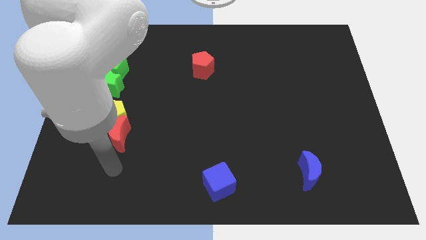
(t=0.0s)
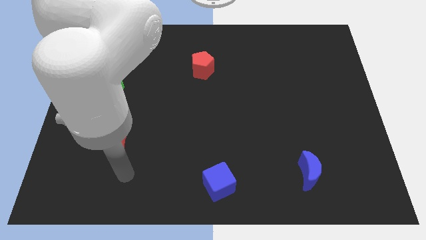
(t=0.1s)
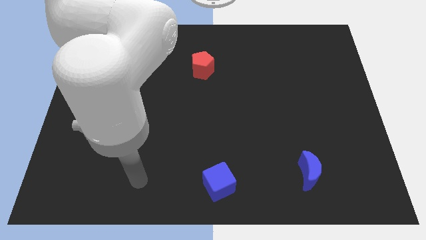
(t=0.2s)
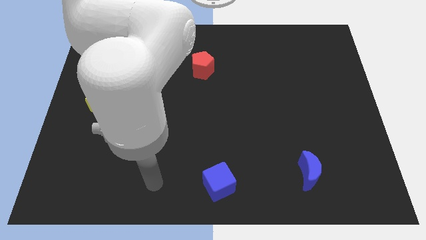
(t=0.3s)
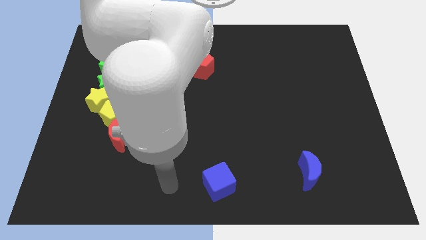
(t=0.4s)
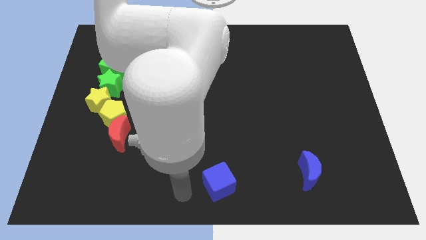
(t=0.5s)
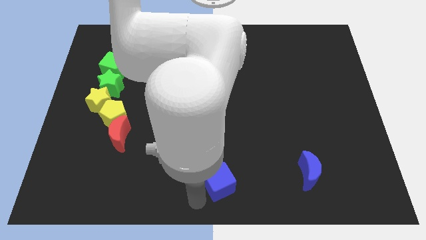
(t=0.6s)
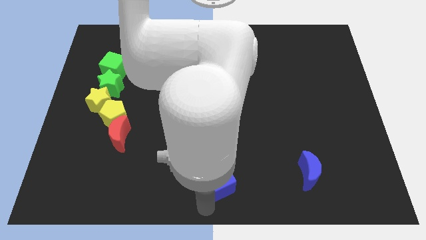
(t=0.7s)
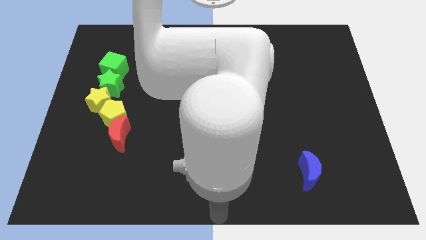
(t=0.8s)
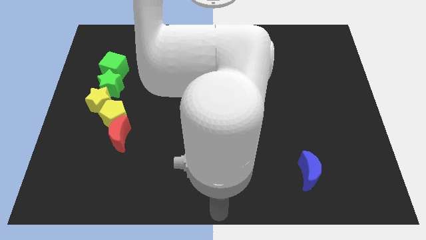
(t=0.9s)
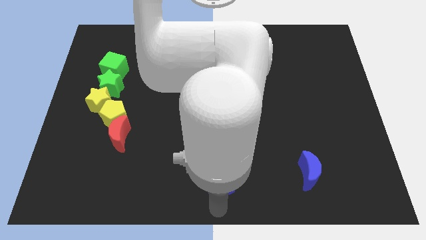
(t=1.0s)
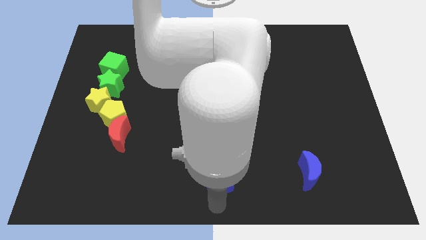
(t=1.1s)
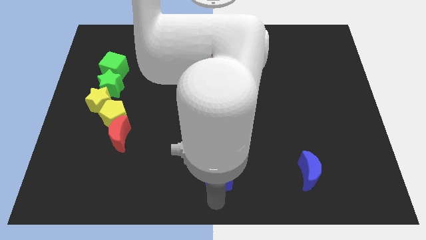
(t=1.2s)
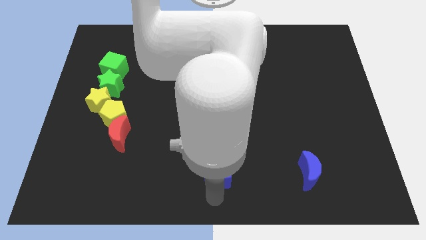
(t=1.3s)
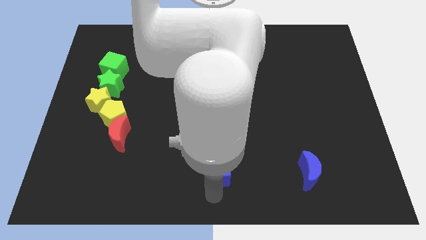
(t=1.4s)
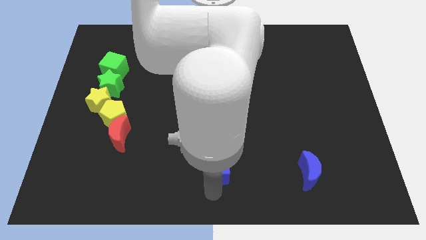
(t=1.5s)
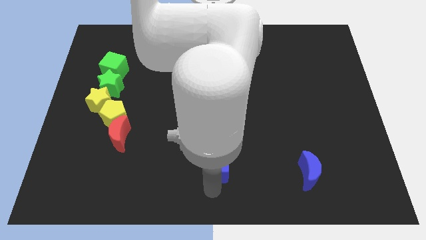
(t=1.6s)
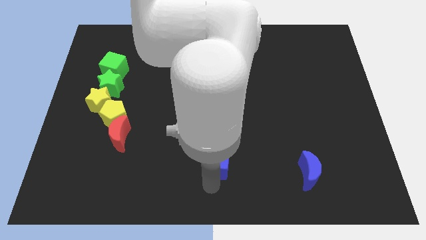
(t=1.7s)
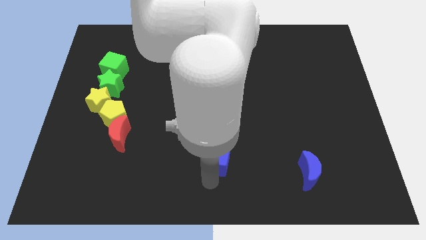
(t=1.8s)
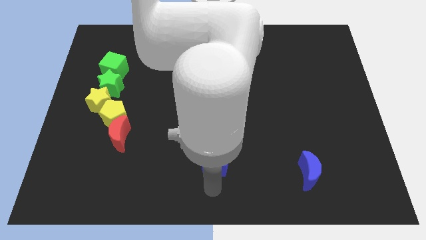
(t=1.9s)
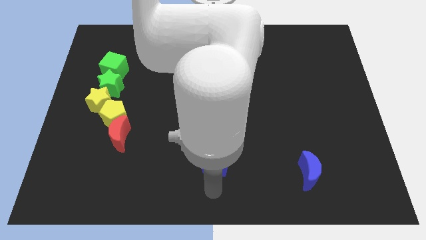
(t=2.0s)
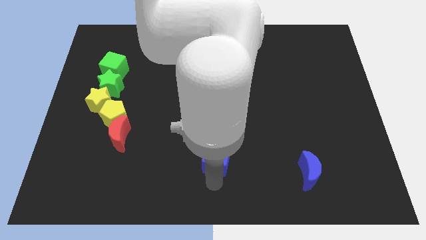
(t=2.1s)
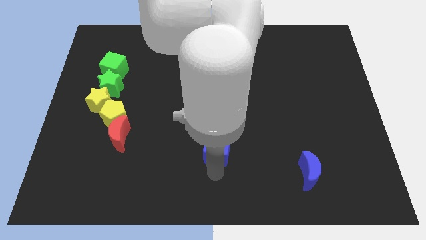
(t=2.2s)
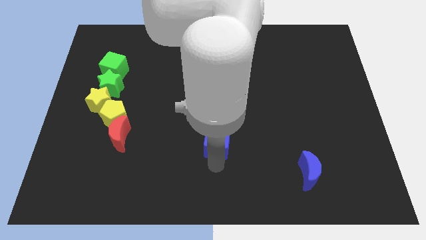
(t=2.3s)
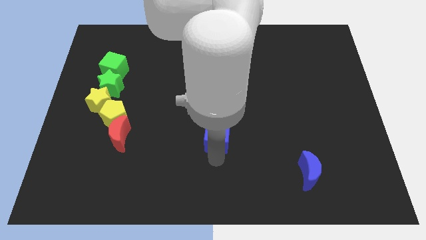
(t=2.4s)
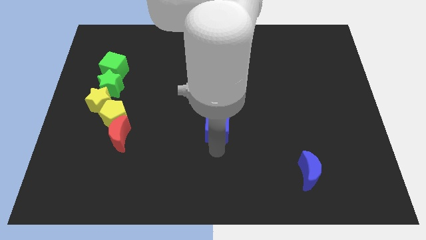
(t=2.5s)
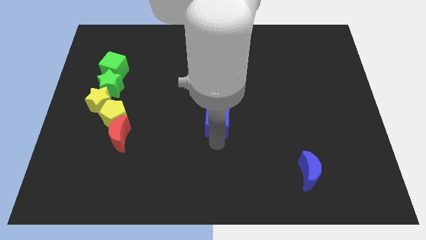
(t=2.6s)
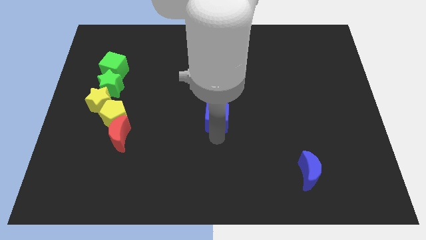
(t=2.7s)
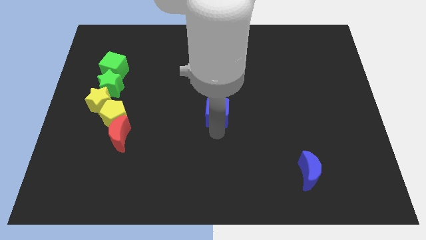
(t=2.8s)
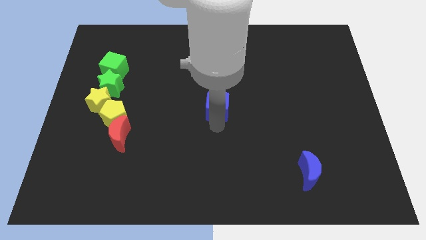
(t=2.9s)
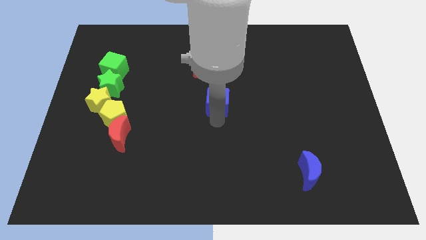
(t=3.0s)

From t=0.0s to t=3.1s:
slide the blue cube up

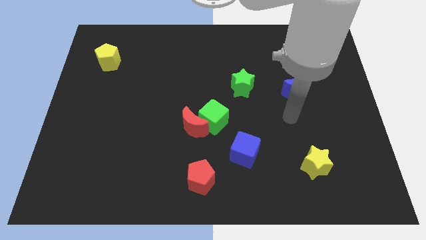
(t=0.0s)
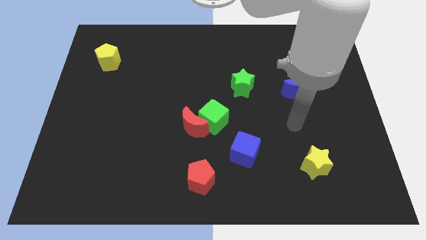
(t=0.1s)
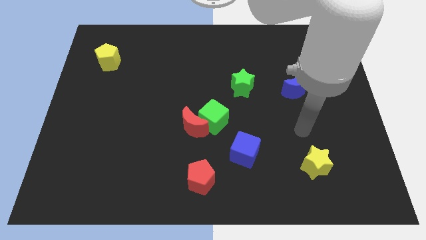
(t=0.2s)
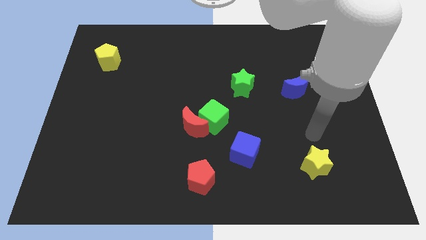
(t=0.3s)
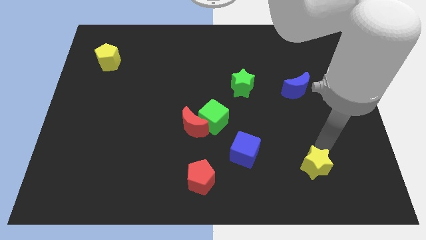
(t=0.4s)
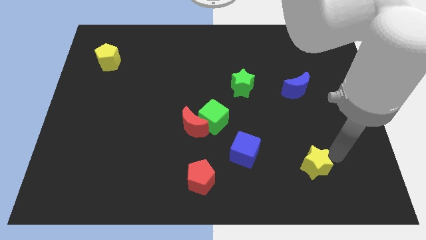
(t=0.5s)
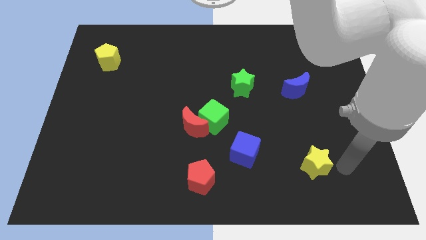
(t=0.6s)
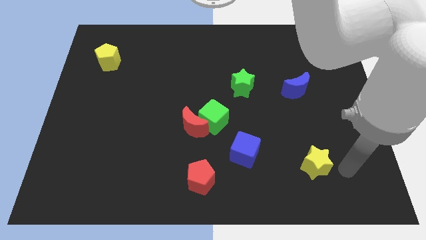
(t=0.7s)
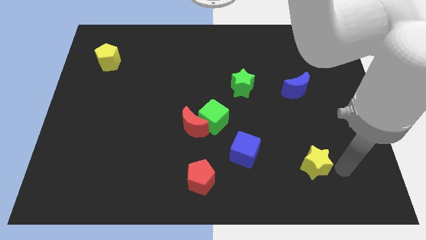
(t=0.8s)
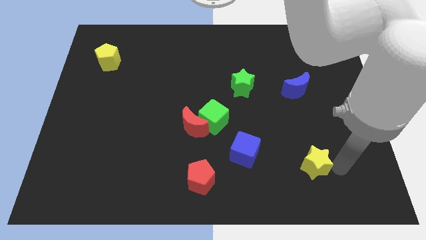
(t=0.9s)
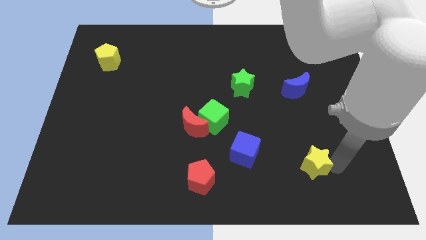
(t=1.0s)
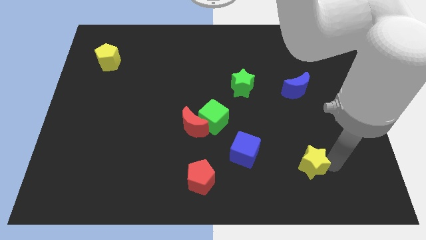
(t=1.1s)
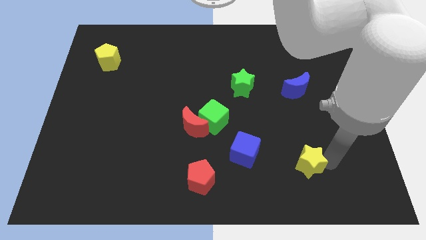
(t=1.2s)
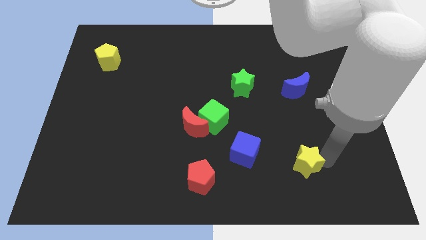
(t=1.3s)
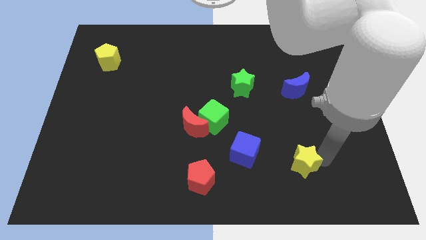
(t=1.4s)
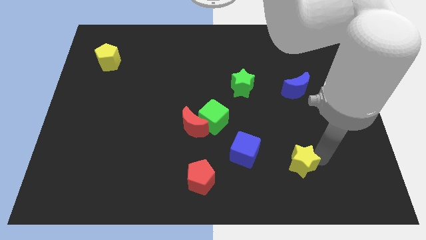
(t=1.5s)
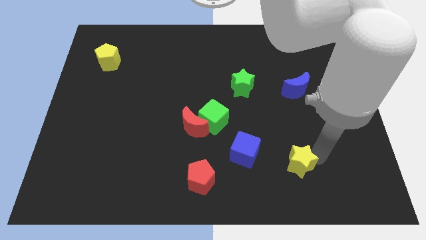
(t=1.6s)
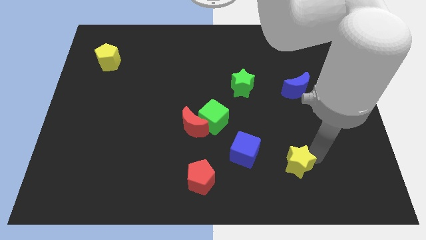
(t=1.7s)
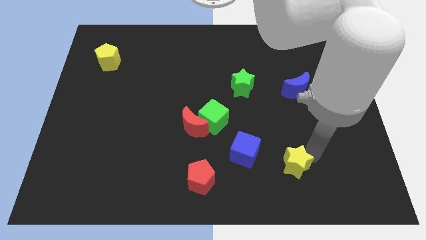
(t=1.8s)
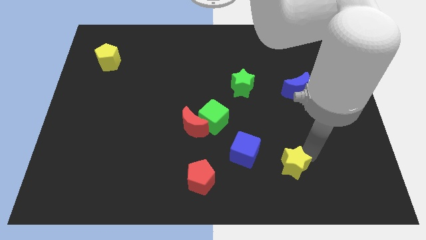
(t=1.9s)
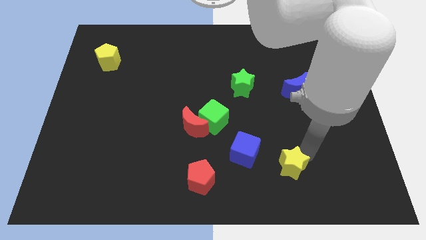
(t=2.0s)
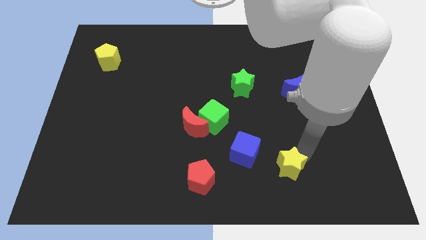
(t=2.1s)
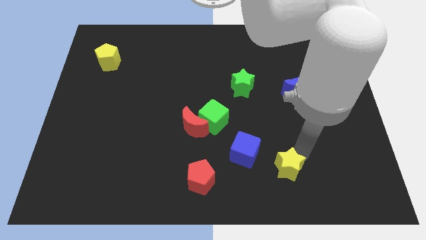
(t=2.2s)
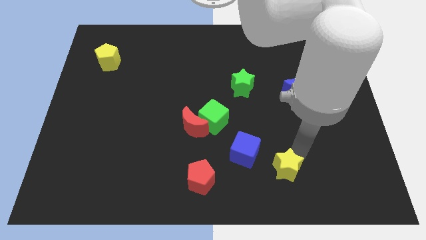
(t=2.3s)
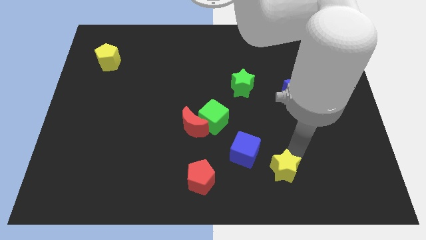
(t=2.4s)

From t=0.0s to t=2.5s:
slide the yellow star a little bit to the left

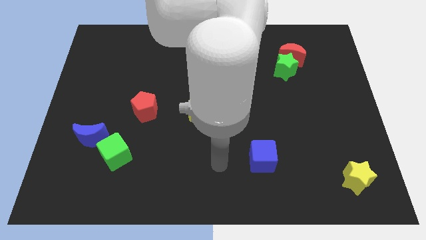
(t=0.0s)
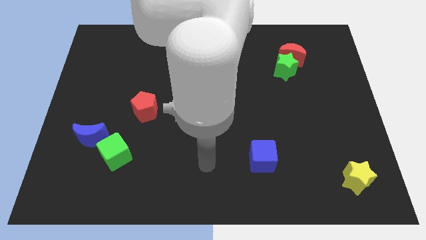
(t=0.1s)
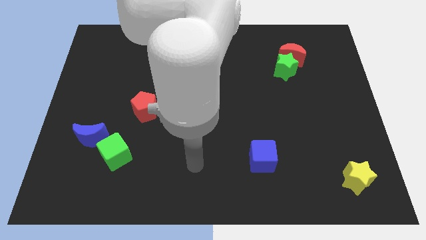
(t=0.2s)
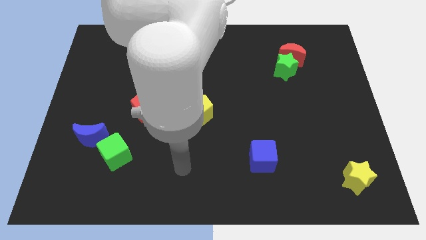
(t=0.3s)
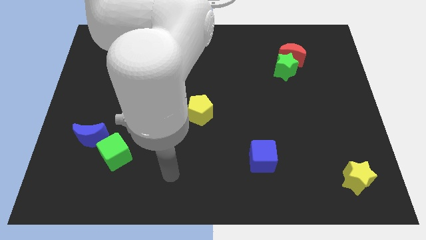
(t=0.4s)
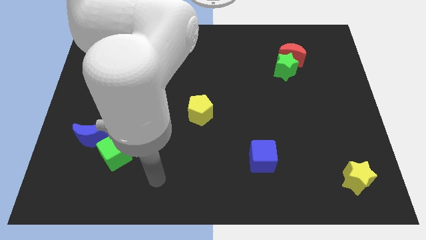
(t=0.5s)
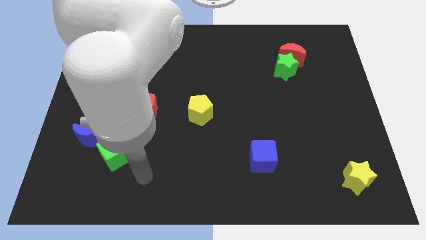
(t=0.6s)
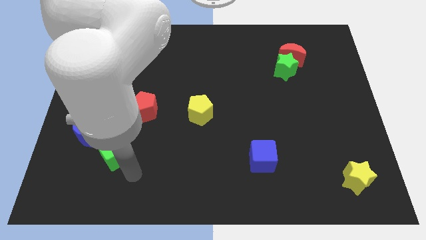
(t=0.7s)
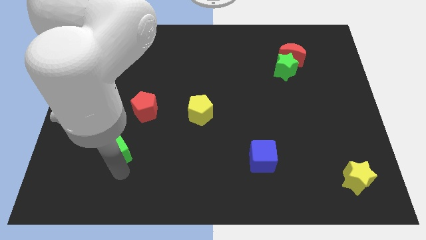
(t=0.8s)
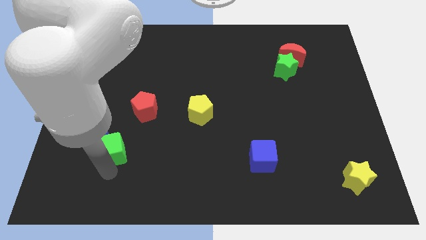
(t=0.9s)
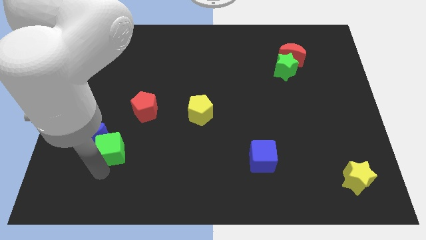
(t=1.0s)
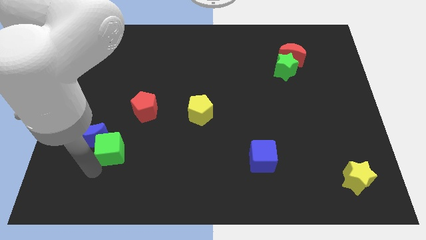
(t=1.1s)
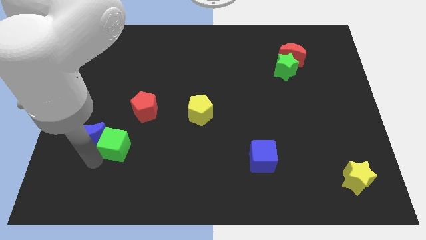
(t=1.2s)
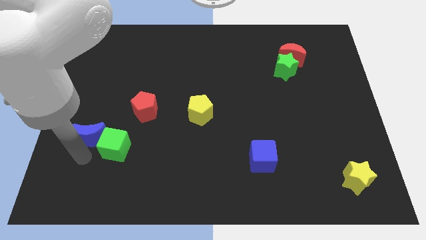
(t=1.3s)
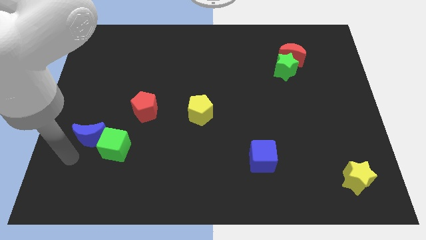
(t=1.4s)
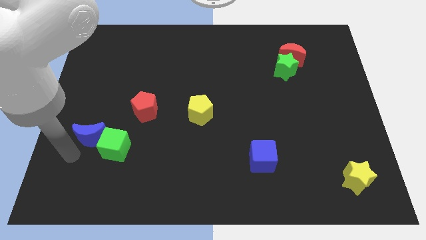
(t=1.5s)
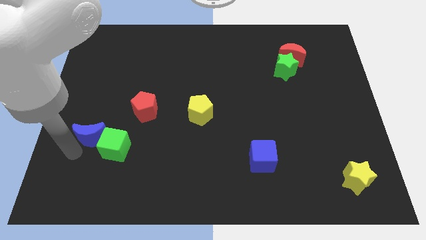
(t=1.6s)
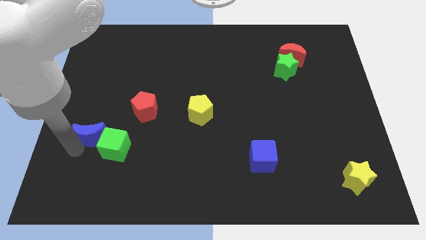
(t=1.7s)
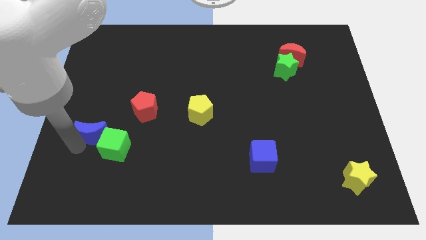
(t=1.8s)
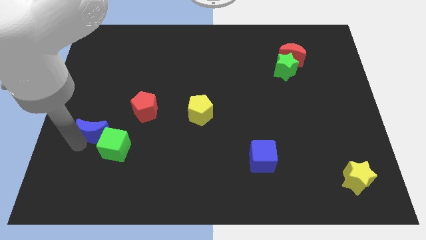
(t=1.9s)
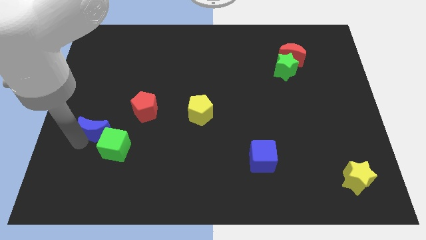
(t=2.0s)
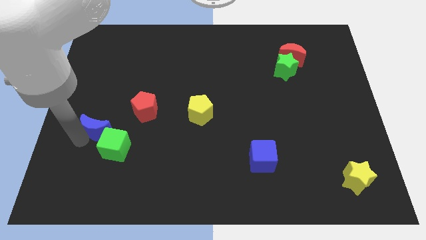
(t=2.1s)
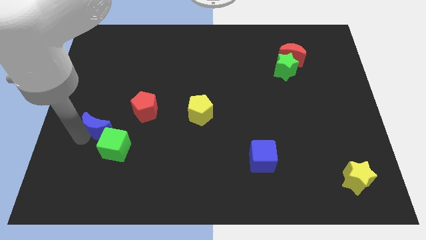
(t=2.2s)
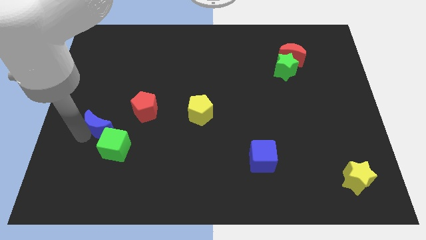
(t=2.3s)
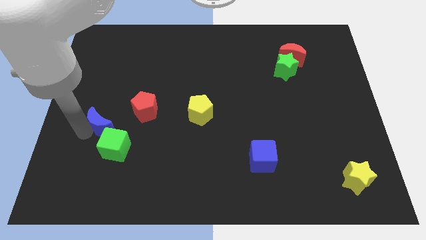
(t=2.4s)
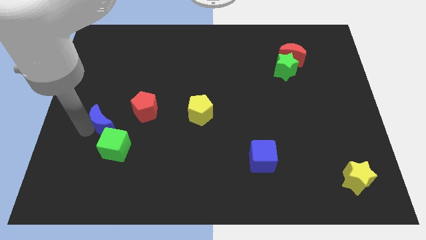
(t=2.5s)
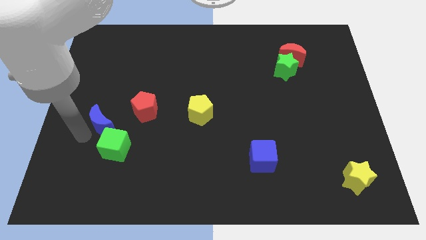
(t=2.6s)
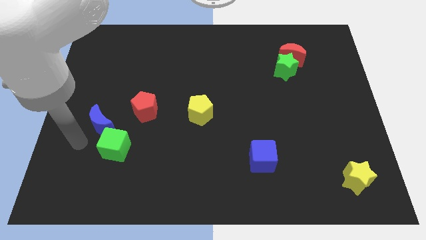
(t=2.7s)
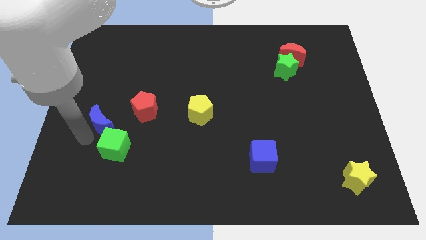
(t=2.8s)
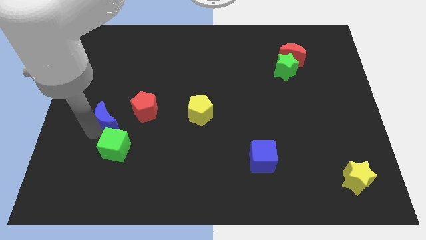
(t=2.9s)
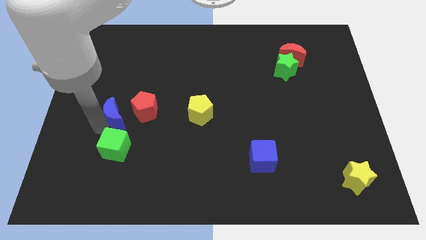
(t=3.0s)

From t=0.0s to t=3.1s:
move the blue moon upwards and then to the right a little
